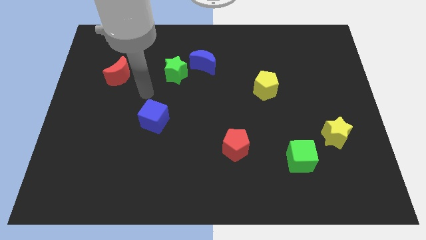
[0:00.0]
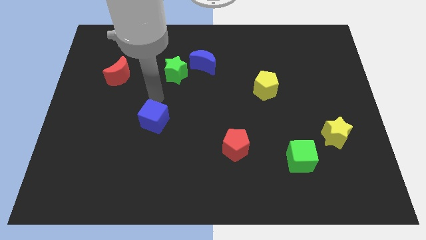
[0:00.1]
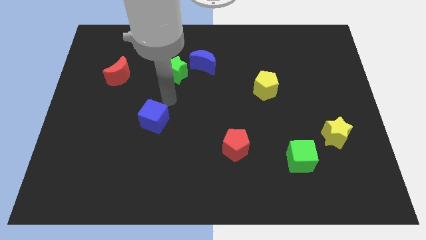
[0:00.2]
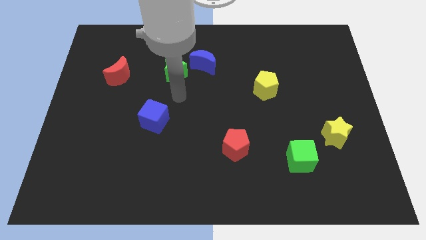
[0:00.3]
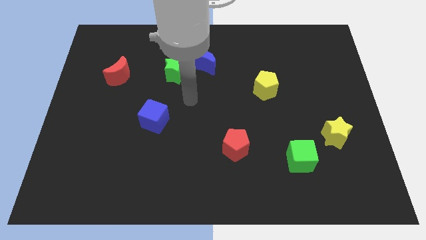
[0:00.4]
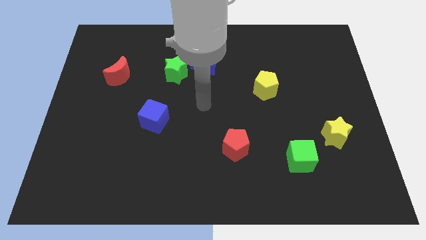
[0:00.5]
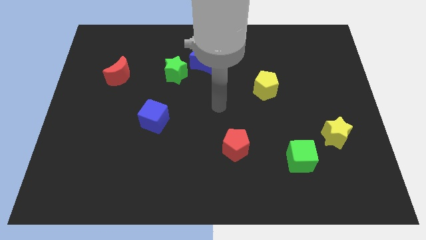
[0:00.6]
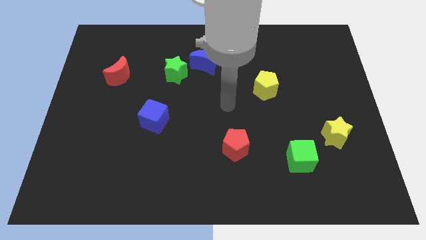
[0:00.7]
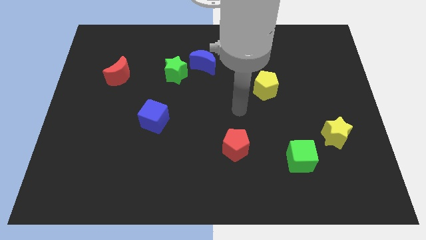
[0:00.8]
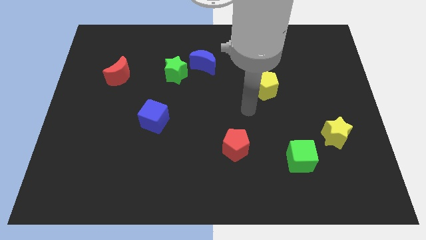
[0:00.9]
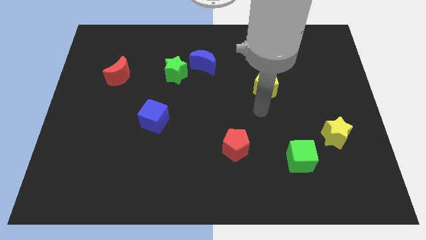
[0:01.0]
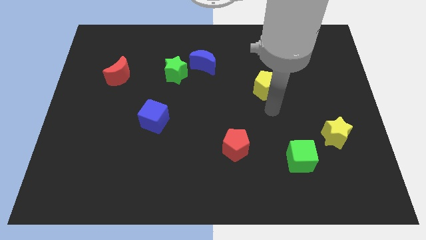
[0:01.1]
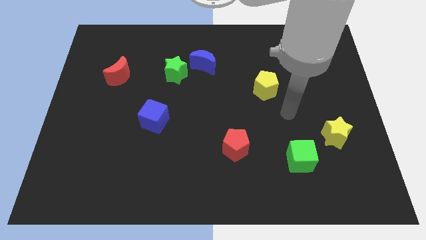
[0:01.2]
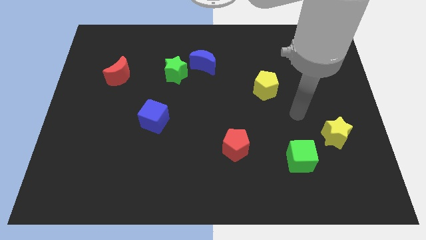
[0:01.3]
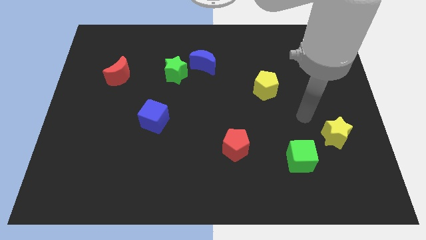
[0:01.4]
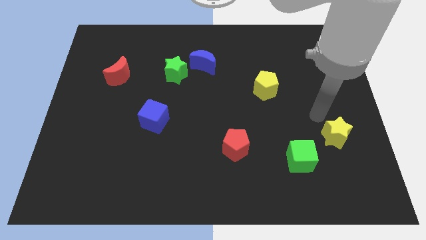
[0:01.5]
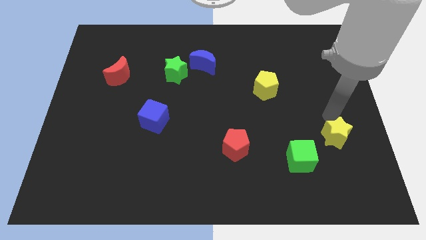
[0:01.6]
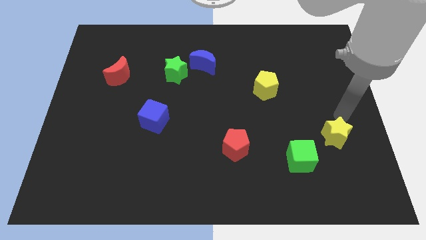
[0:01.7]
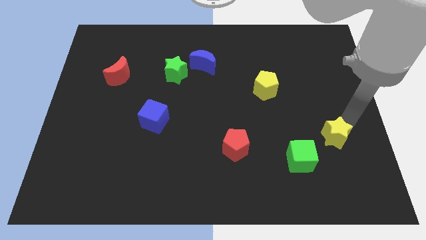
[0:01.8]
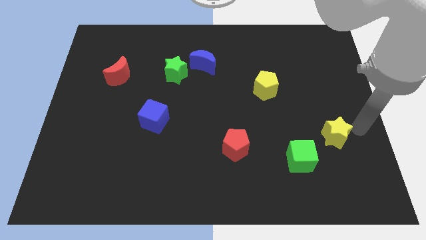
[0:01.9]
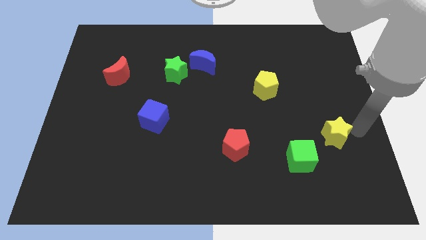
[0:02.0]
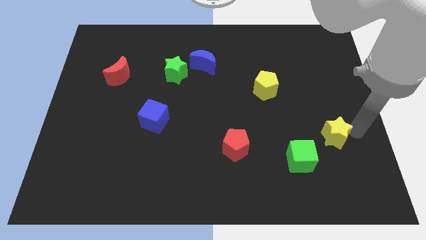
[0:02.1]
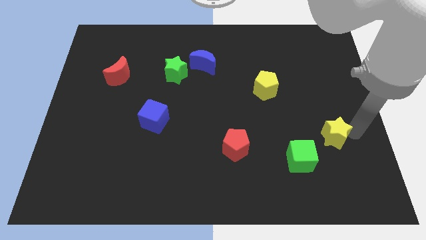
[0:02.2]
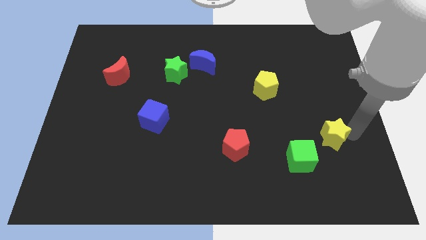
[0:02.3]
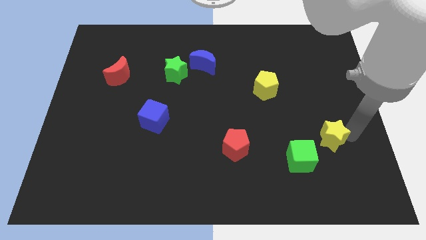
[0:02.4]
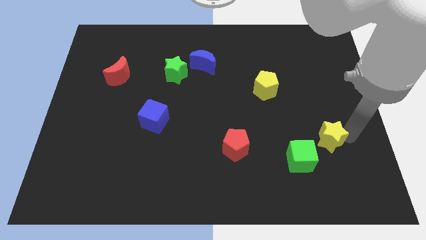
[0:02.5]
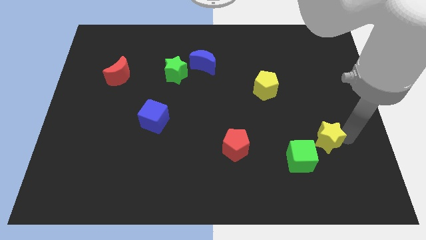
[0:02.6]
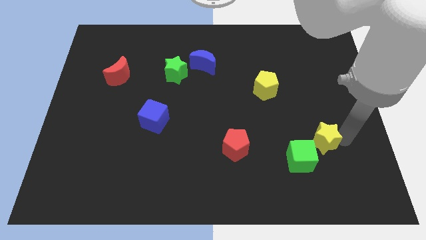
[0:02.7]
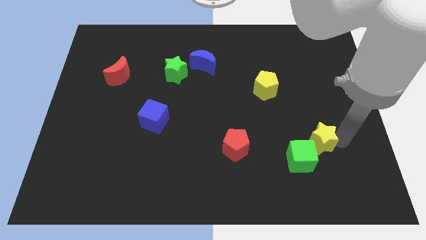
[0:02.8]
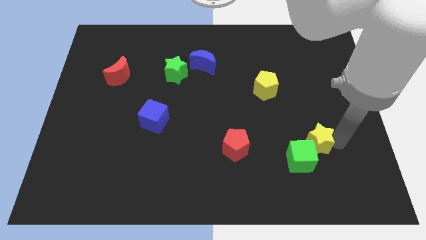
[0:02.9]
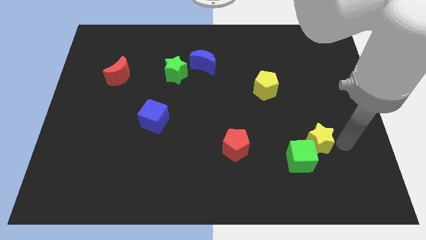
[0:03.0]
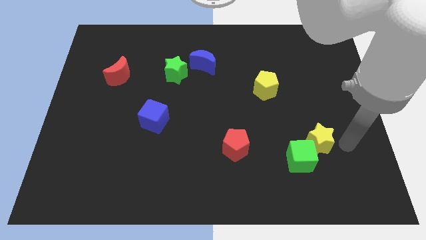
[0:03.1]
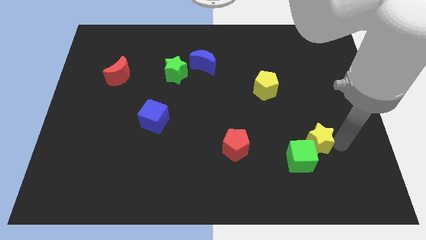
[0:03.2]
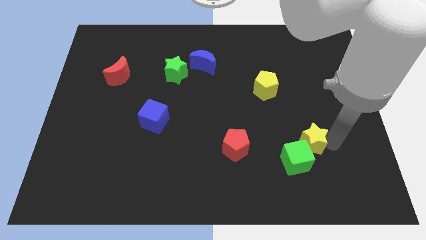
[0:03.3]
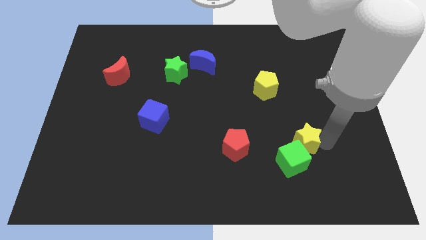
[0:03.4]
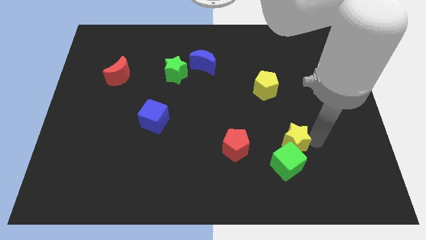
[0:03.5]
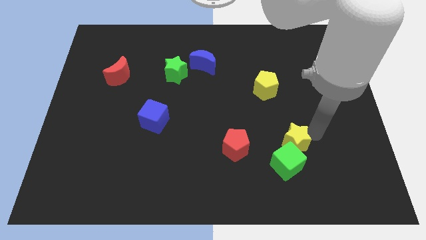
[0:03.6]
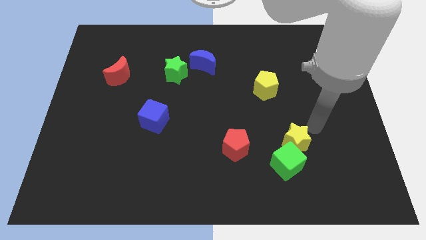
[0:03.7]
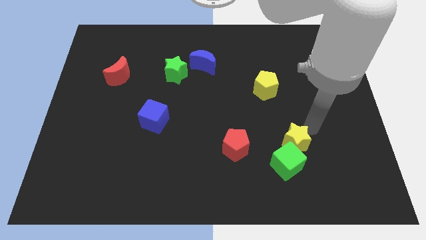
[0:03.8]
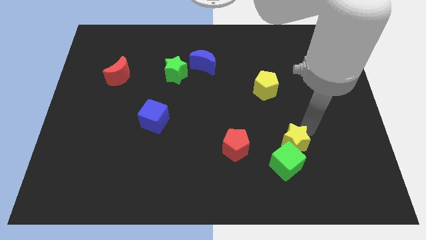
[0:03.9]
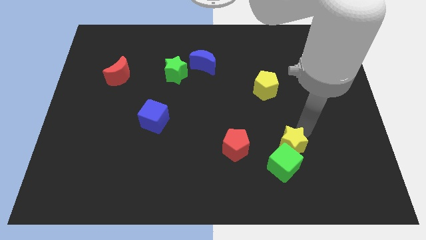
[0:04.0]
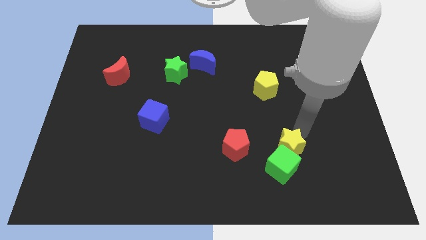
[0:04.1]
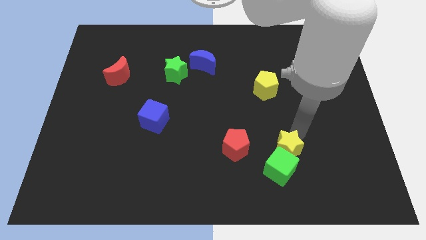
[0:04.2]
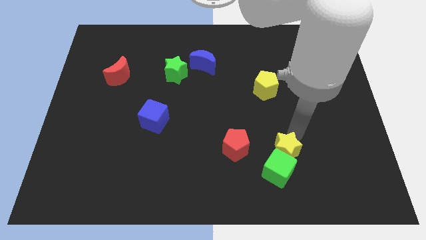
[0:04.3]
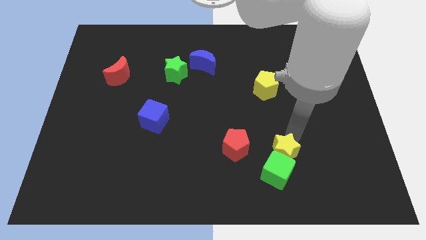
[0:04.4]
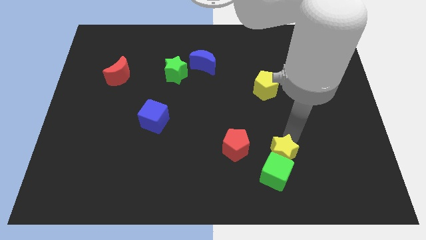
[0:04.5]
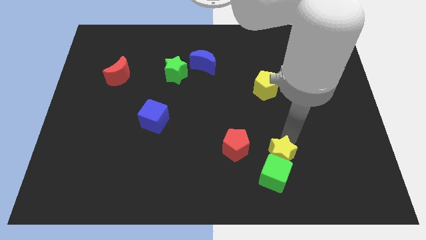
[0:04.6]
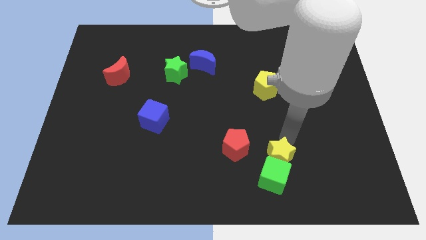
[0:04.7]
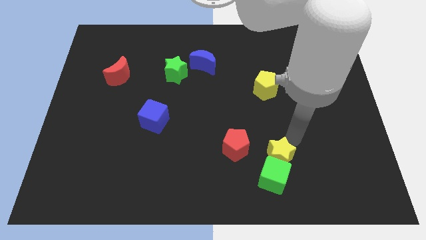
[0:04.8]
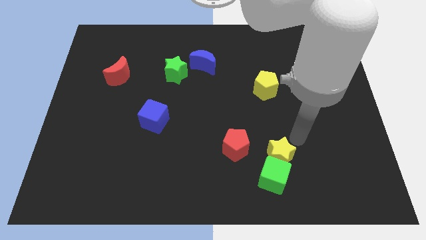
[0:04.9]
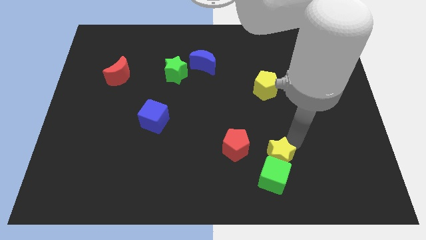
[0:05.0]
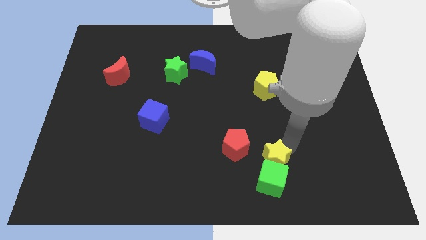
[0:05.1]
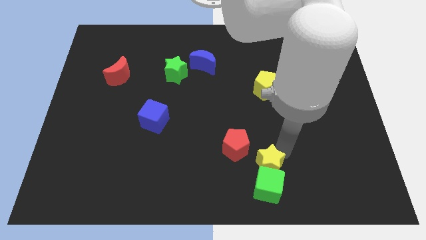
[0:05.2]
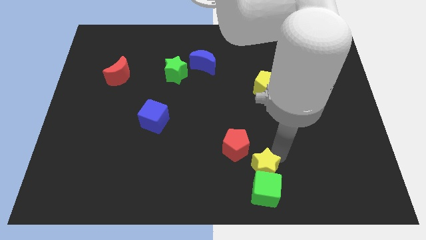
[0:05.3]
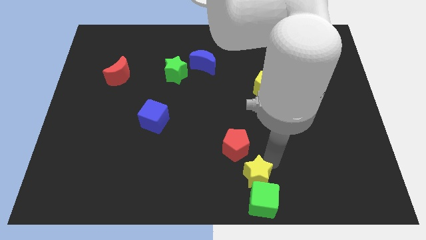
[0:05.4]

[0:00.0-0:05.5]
slide the yellow star to the bottom

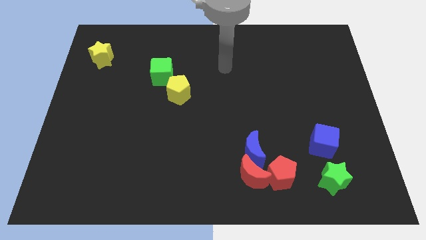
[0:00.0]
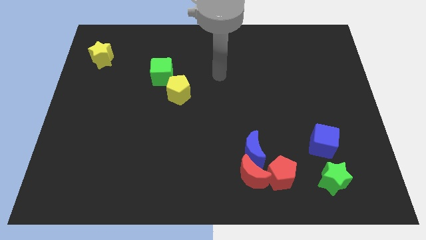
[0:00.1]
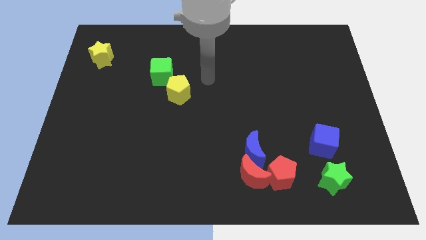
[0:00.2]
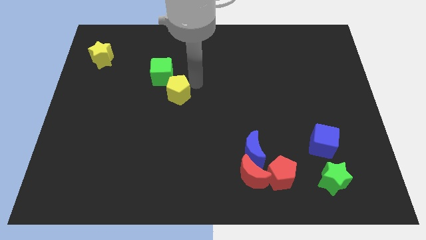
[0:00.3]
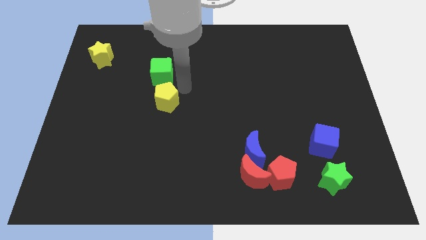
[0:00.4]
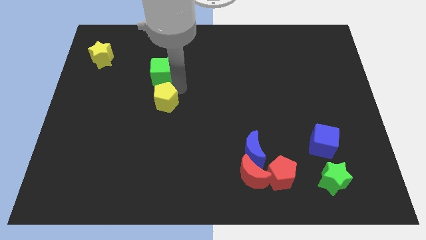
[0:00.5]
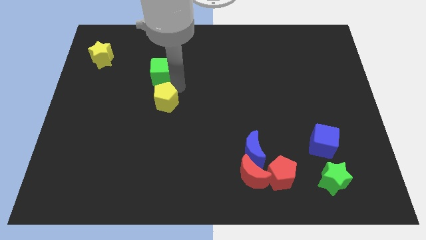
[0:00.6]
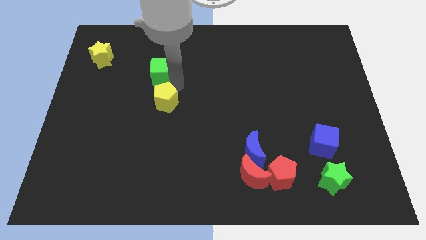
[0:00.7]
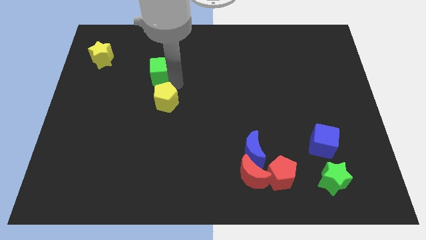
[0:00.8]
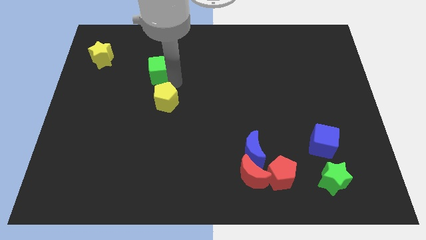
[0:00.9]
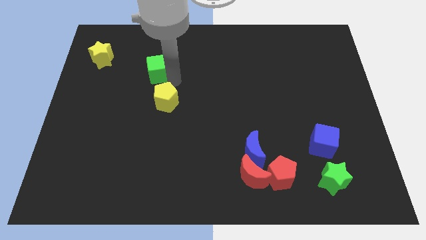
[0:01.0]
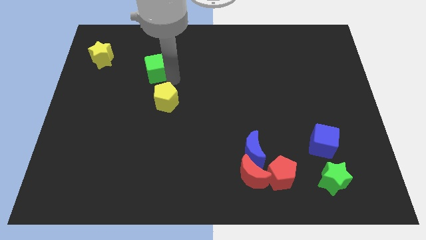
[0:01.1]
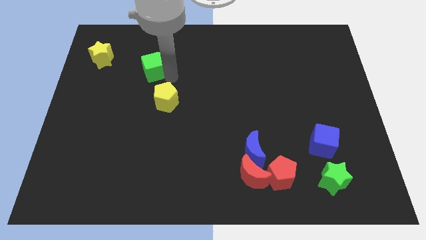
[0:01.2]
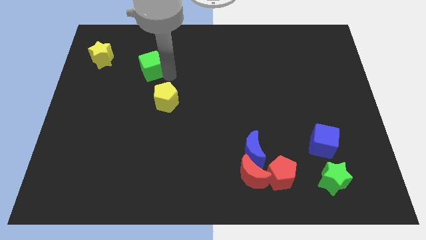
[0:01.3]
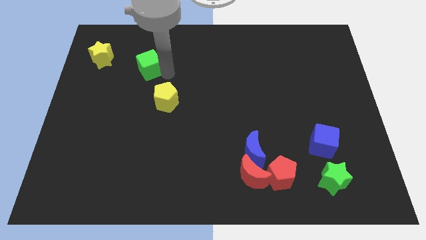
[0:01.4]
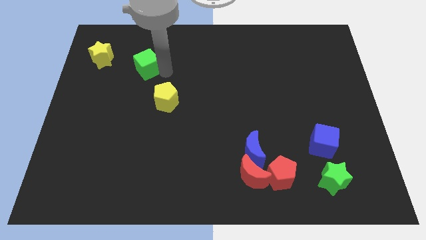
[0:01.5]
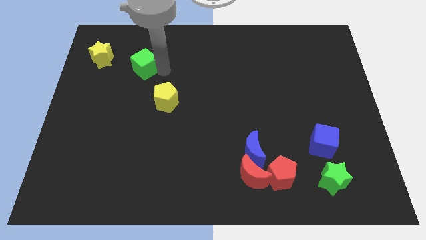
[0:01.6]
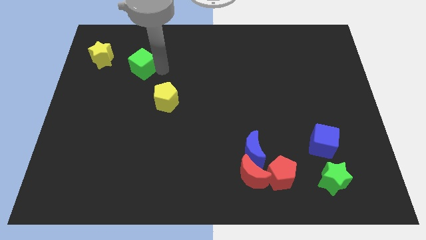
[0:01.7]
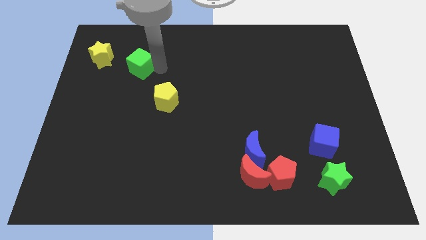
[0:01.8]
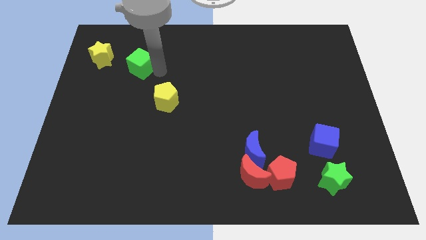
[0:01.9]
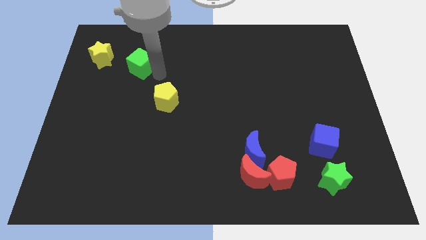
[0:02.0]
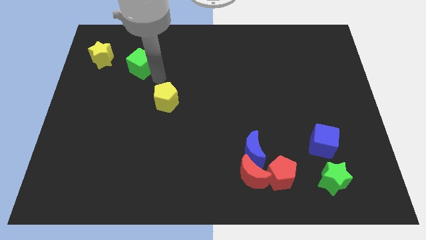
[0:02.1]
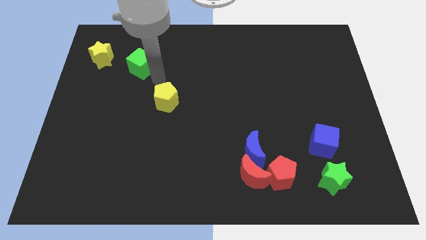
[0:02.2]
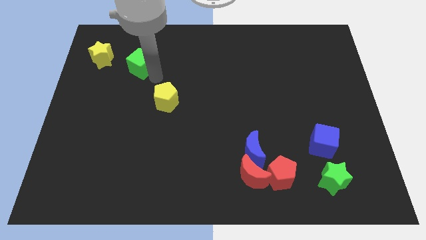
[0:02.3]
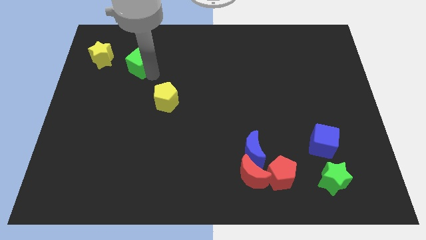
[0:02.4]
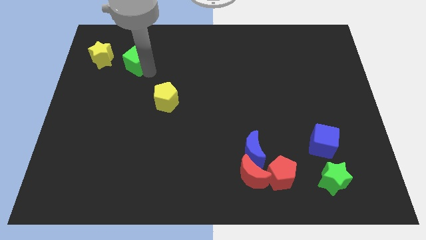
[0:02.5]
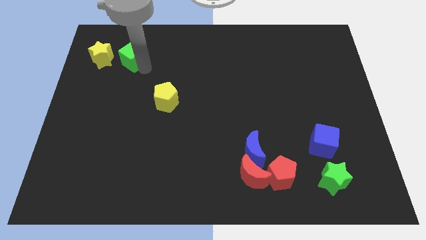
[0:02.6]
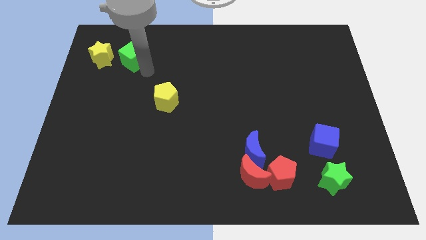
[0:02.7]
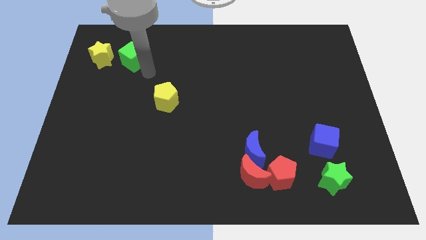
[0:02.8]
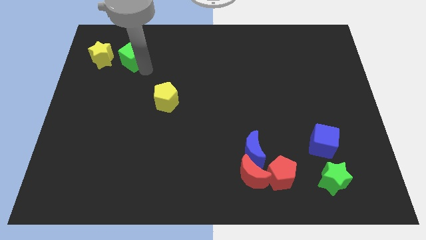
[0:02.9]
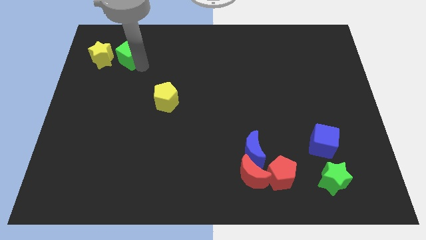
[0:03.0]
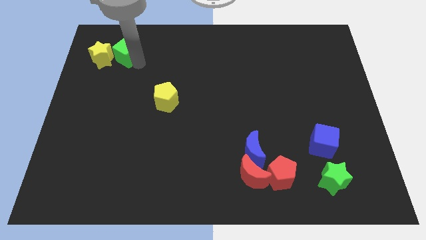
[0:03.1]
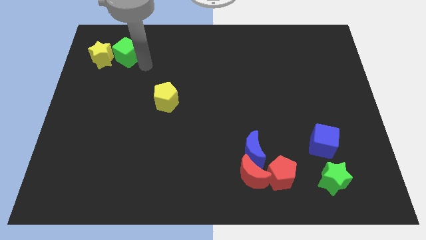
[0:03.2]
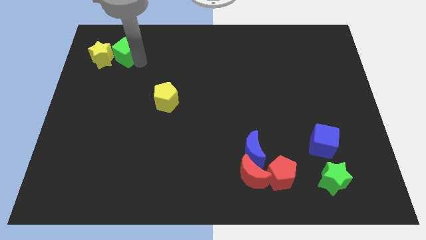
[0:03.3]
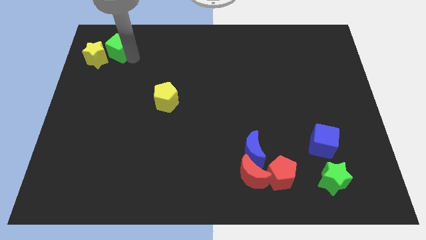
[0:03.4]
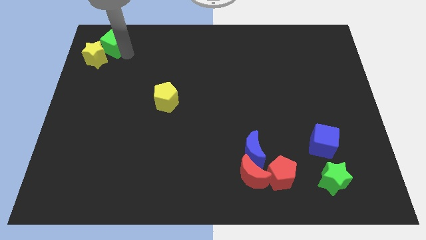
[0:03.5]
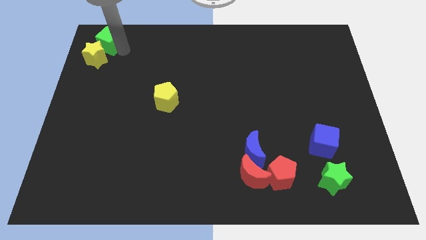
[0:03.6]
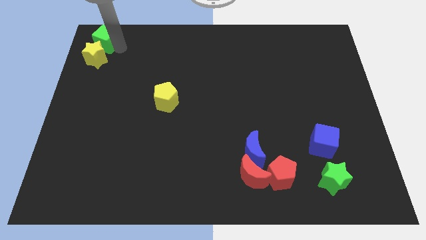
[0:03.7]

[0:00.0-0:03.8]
slide the green cube to the top left
